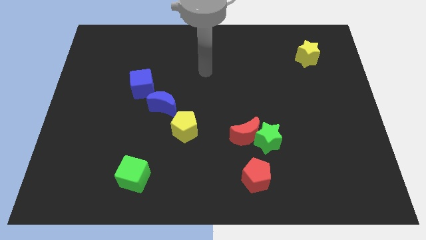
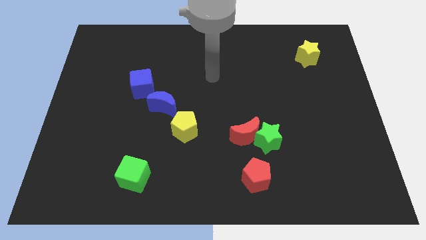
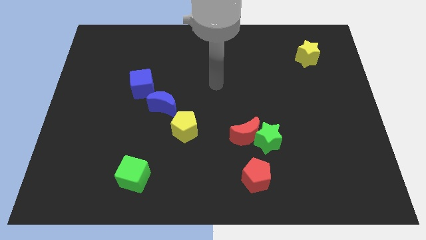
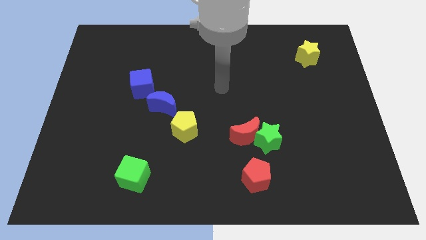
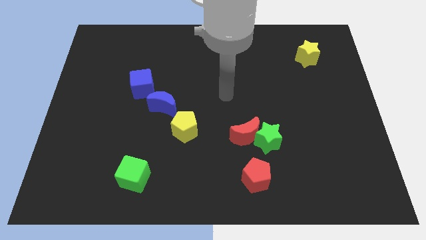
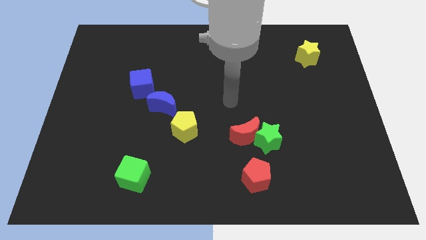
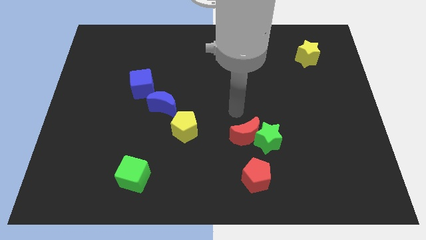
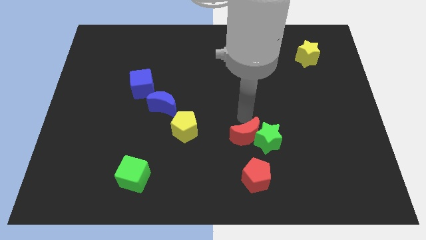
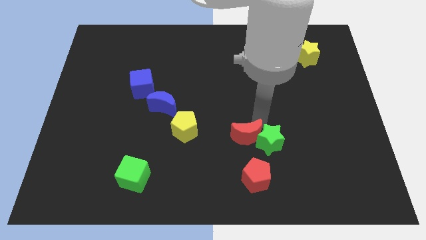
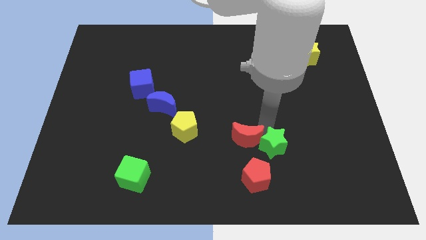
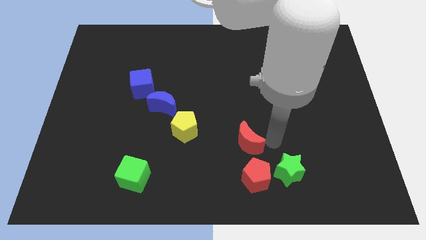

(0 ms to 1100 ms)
separate the red moon from the green star

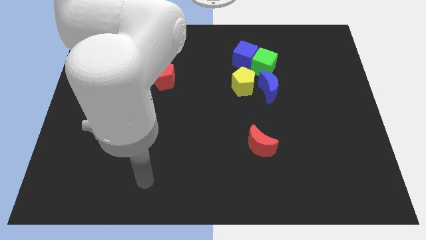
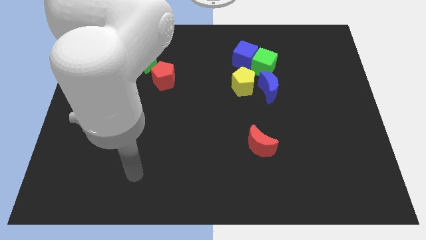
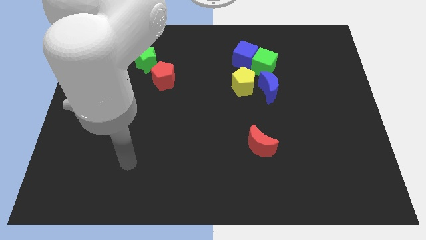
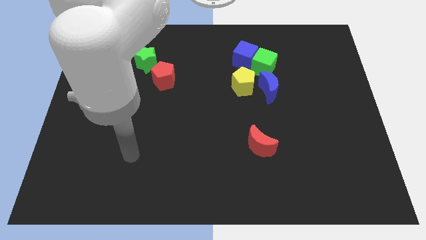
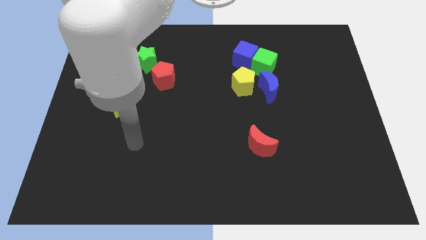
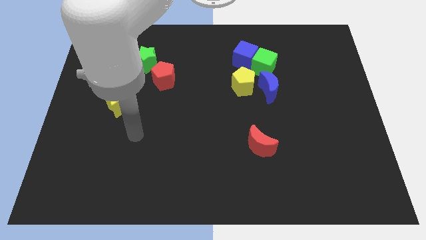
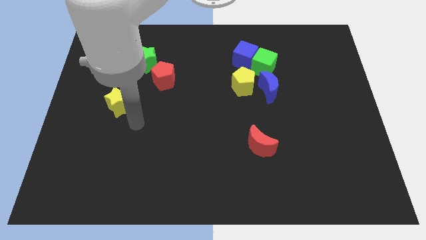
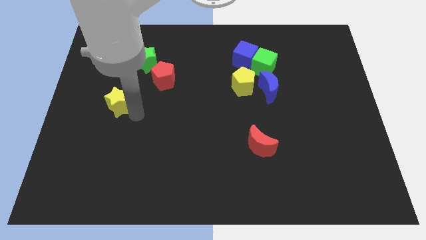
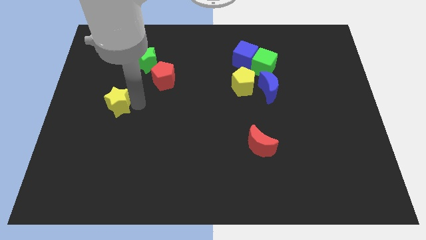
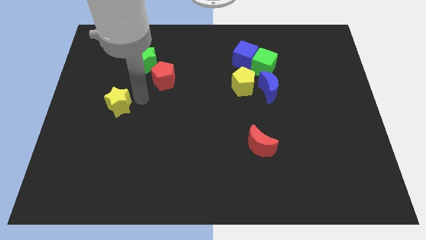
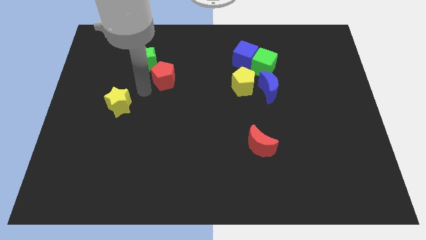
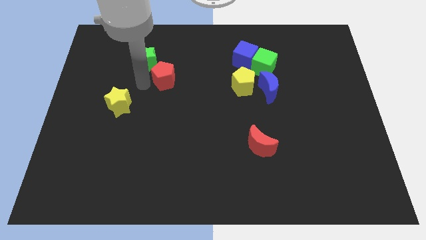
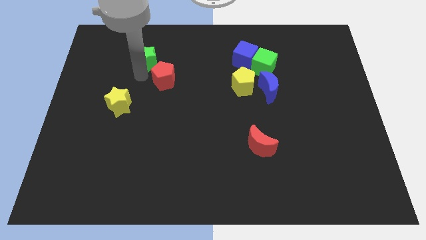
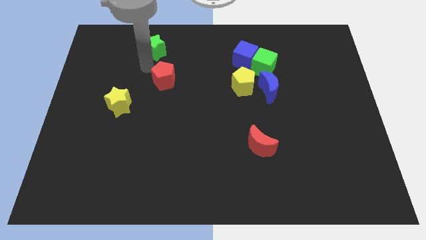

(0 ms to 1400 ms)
move the red pentagon away from the green star

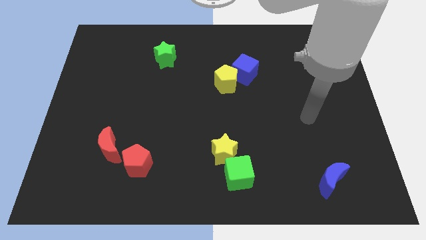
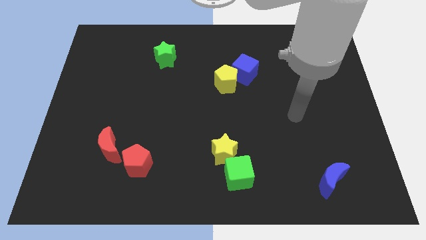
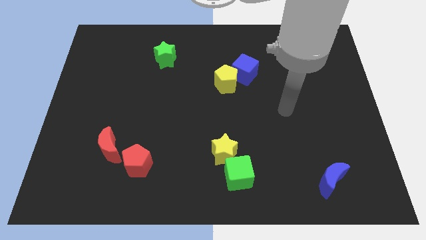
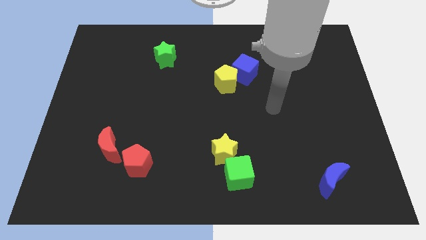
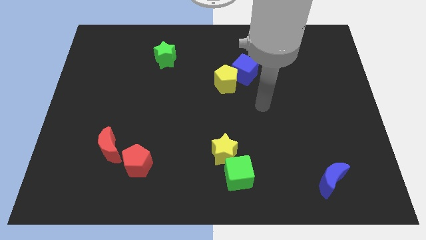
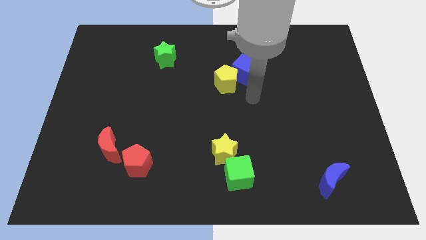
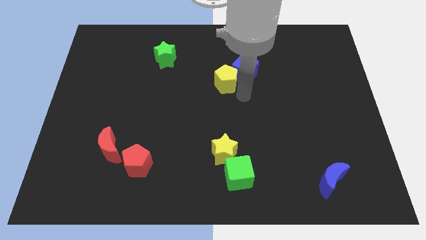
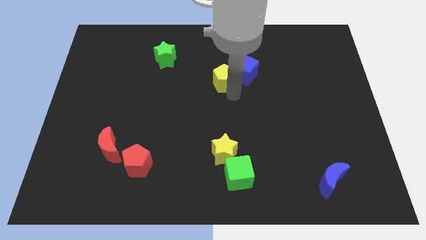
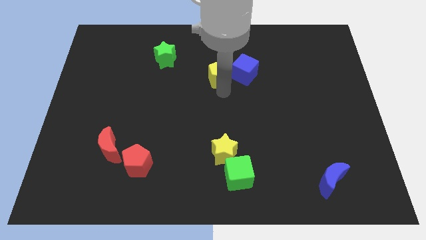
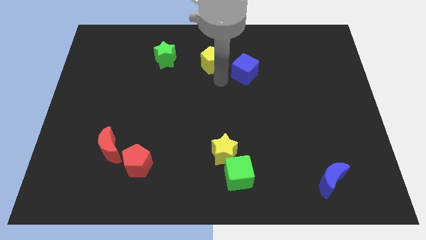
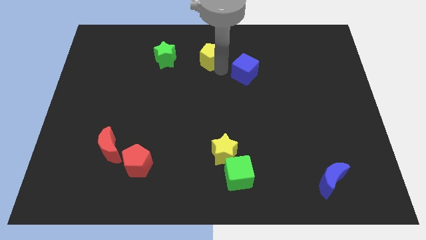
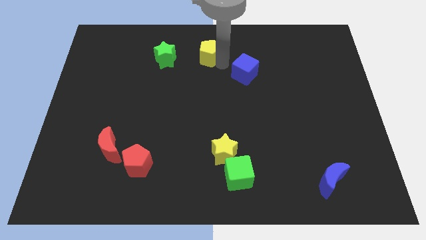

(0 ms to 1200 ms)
move the blue cube away from the yellow pentagon

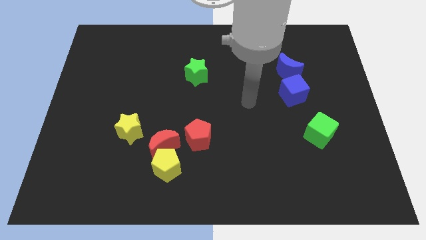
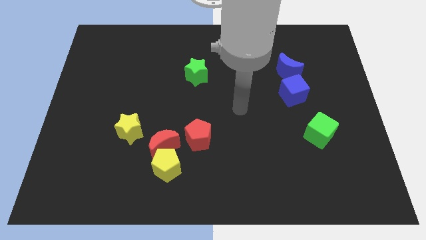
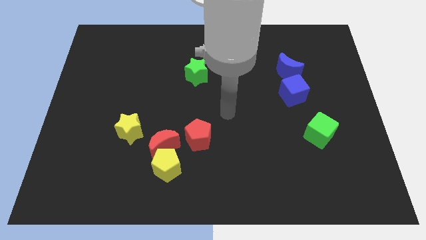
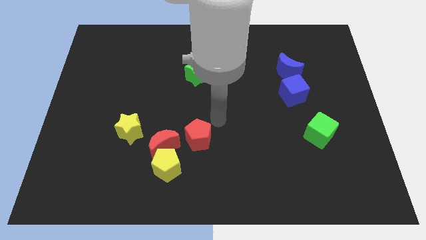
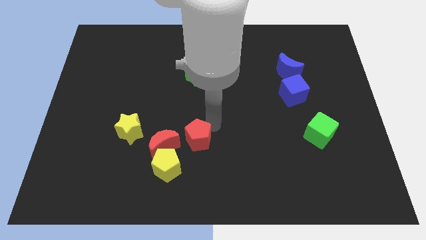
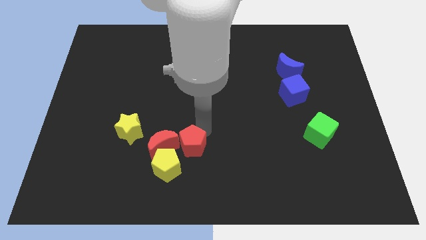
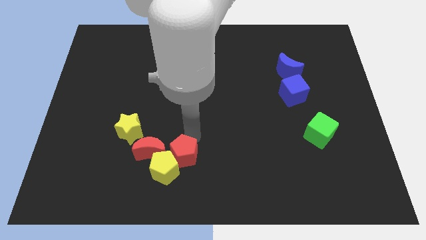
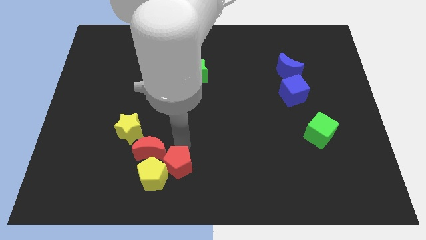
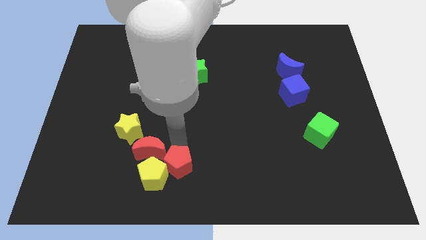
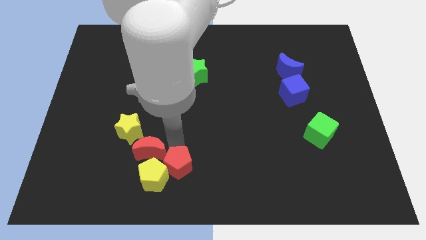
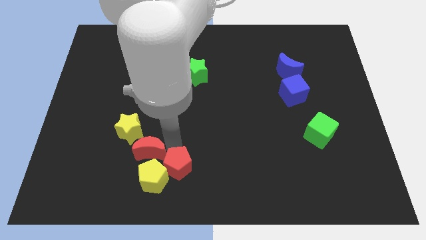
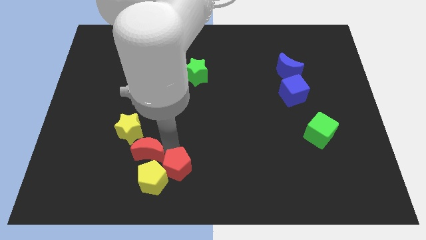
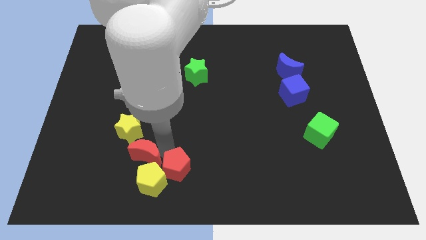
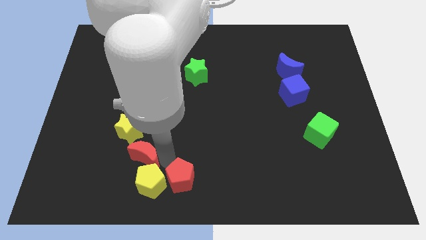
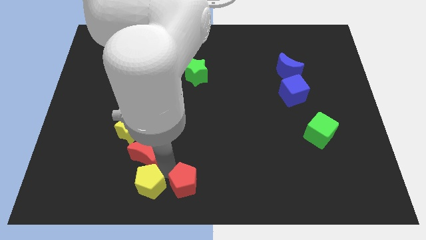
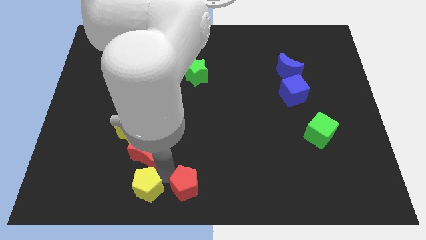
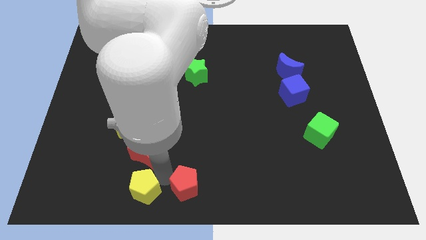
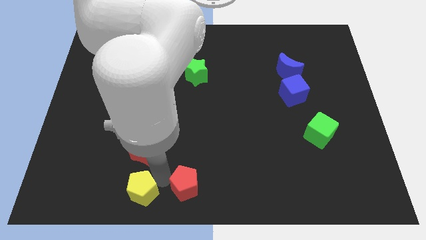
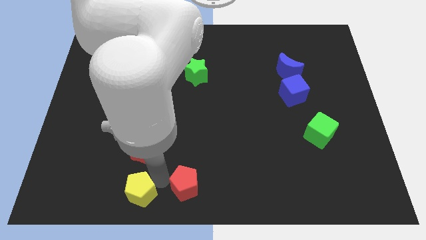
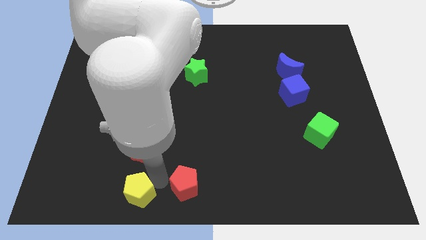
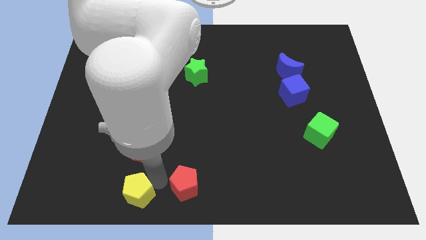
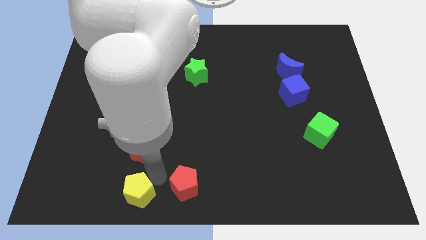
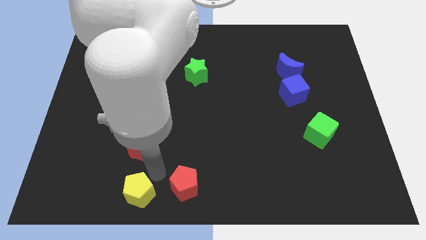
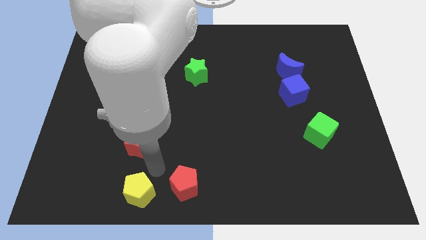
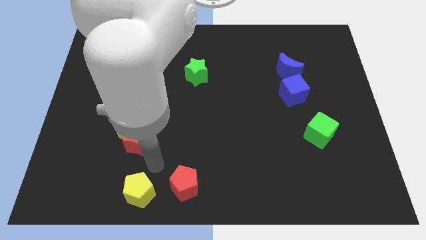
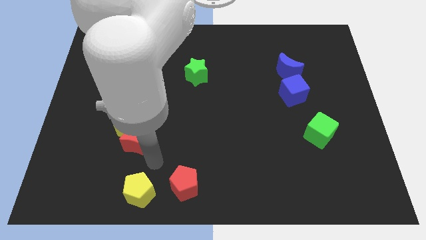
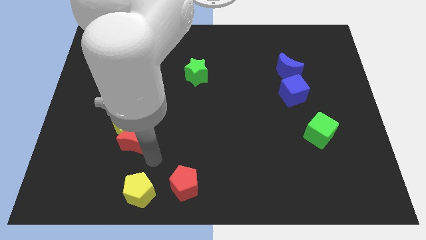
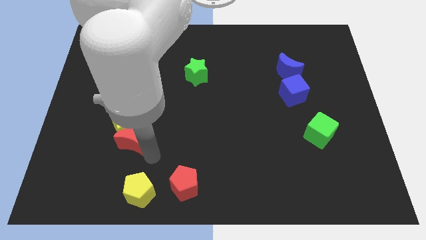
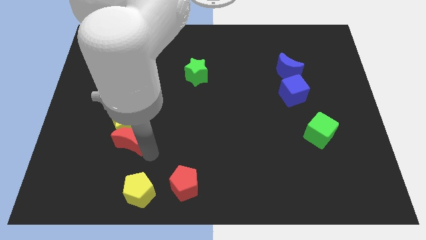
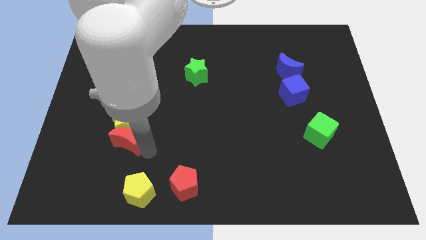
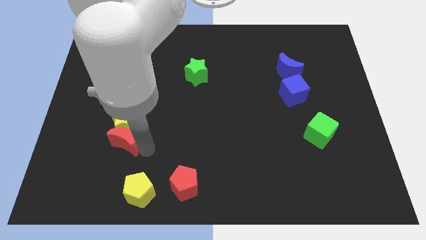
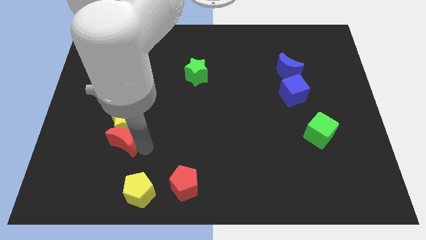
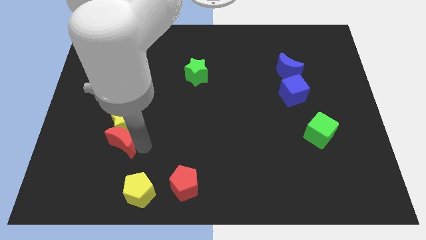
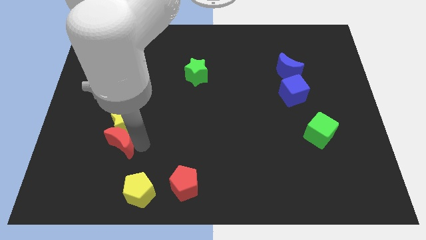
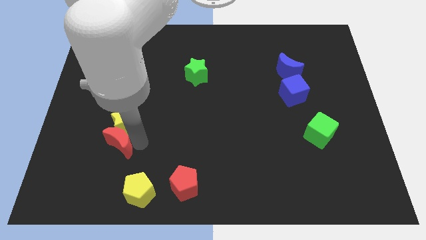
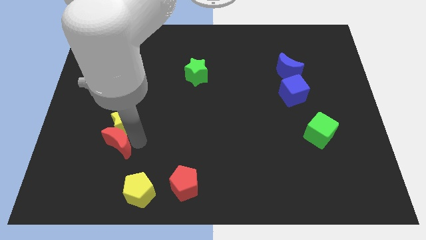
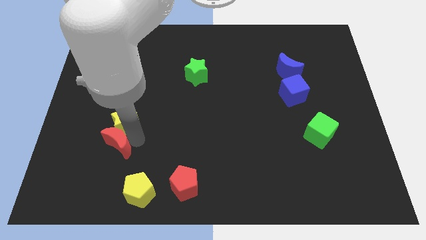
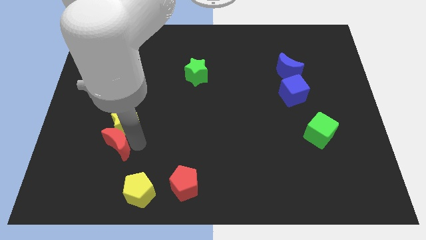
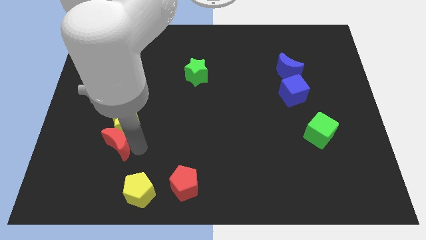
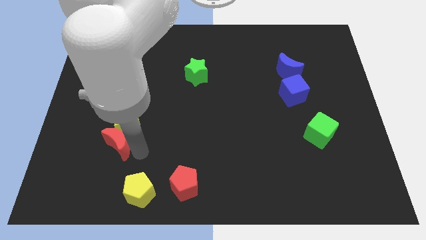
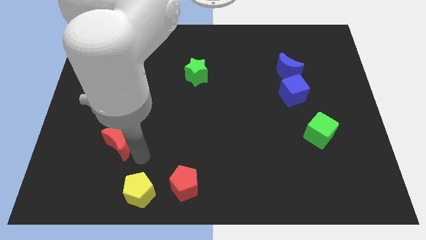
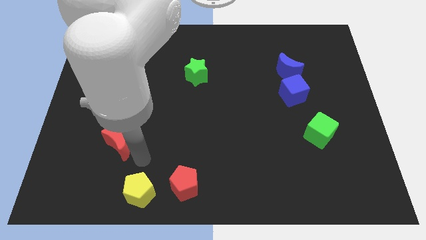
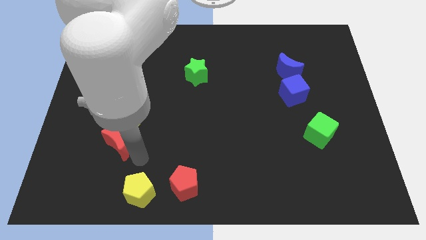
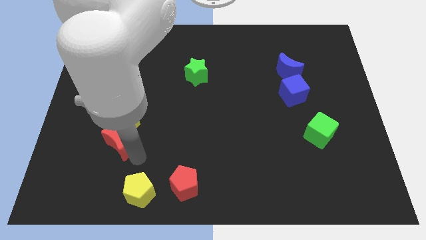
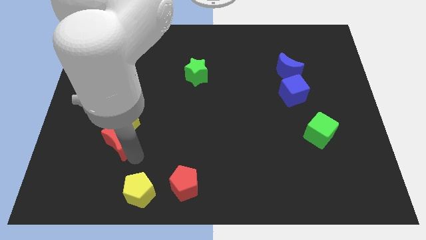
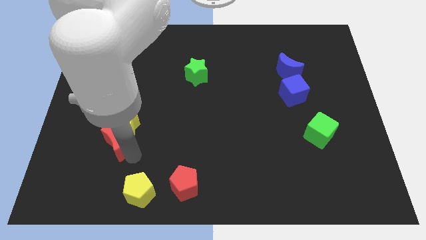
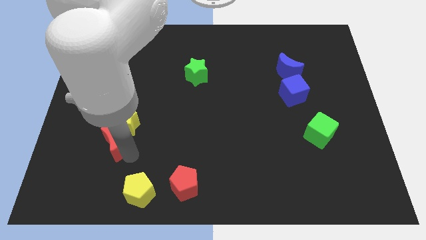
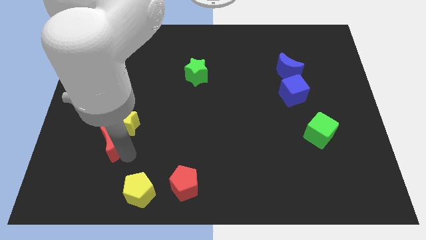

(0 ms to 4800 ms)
separate the red moon from the group

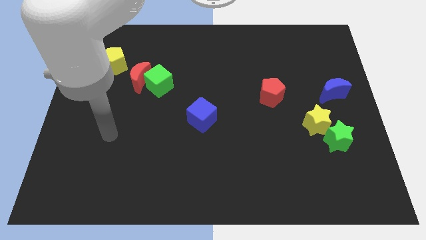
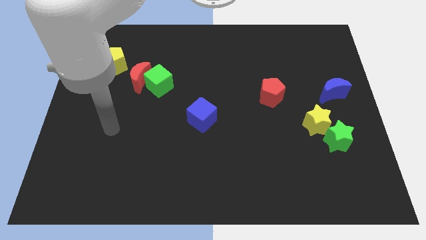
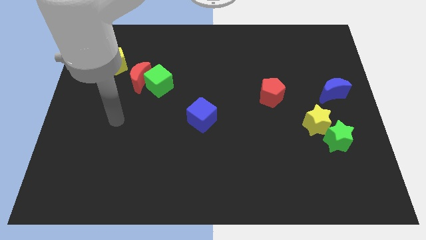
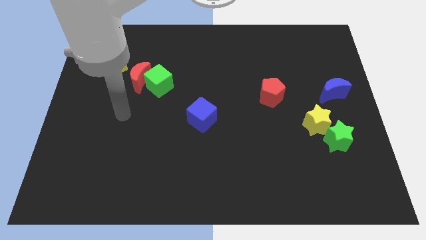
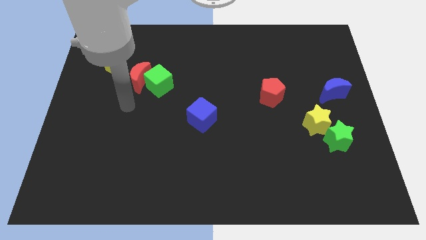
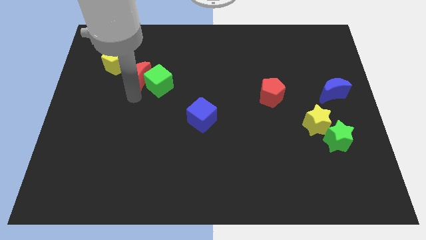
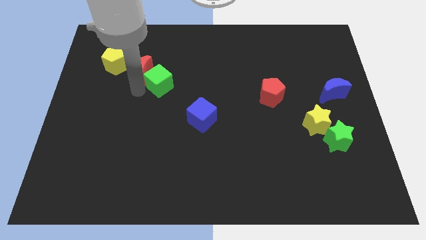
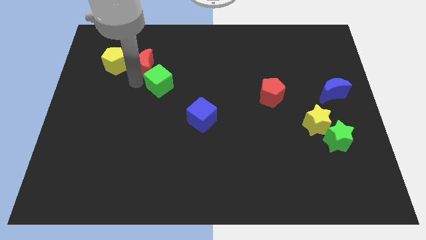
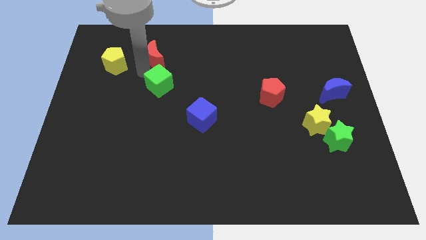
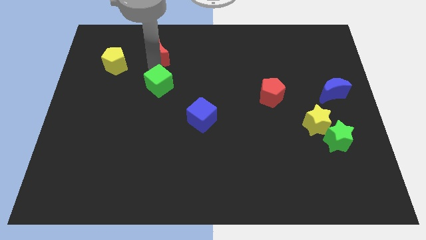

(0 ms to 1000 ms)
separate the green cube from the red moon
